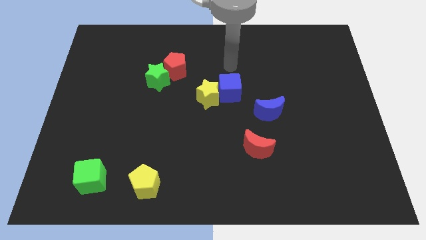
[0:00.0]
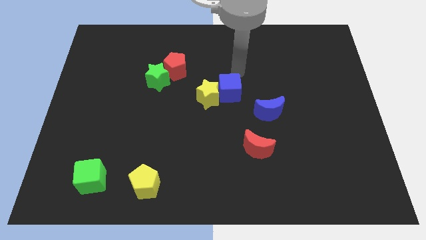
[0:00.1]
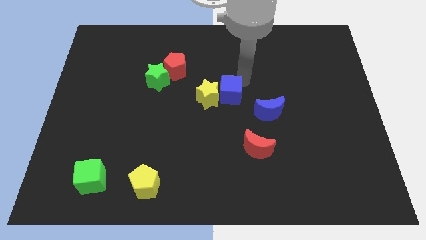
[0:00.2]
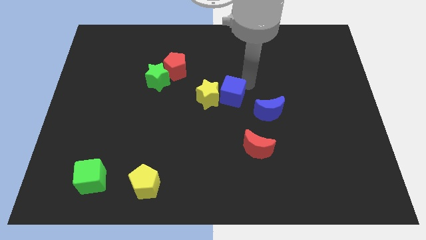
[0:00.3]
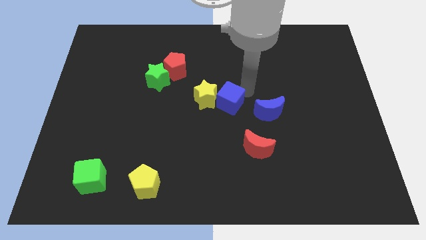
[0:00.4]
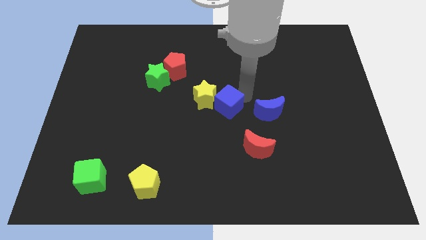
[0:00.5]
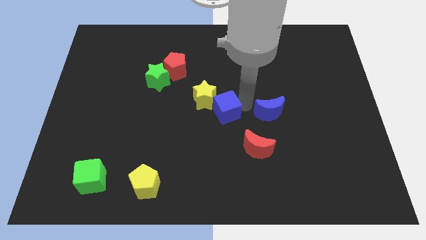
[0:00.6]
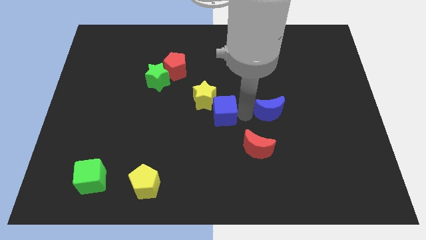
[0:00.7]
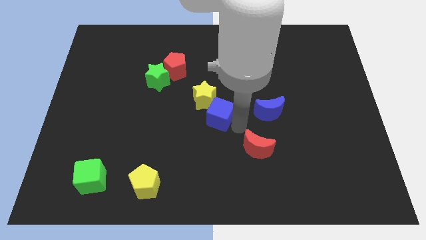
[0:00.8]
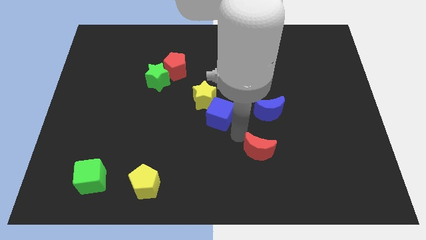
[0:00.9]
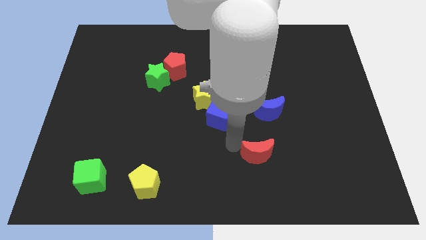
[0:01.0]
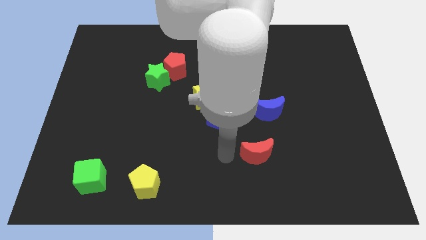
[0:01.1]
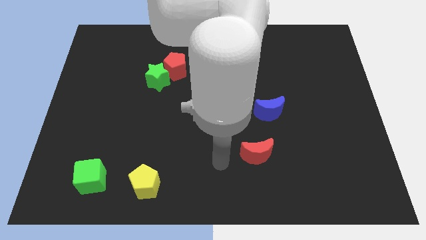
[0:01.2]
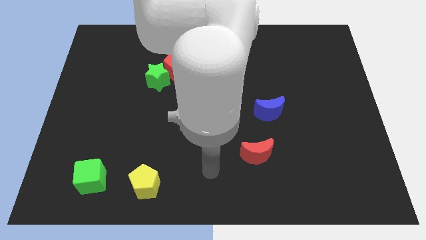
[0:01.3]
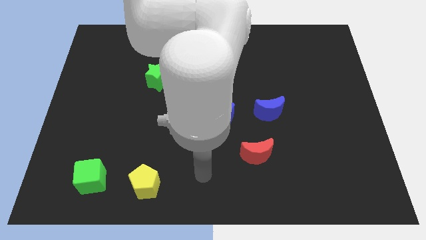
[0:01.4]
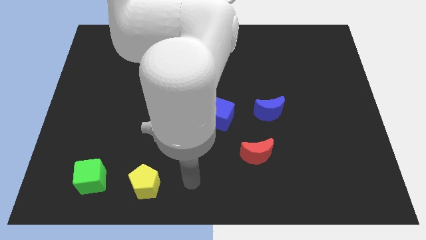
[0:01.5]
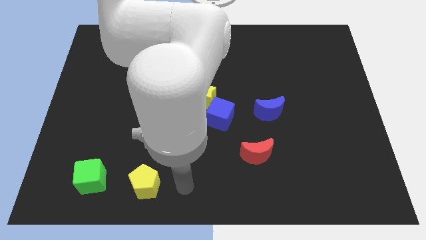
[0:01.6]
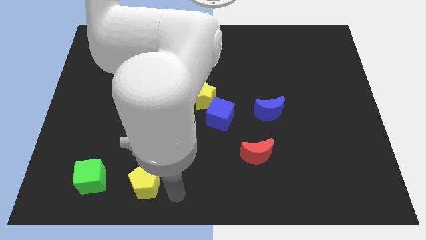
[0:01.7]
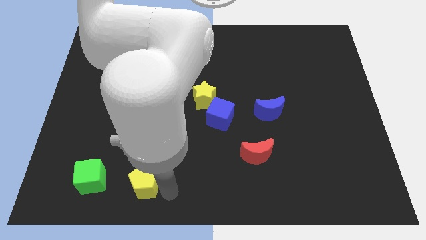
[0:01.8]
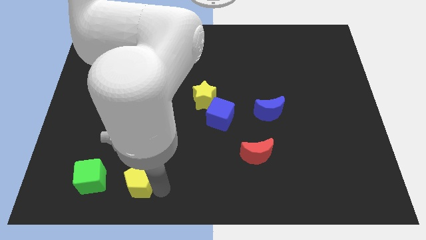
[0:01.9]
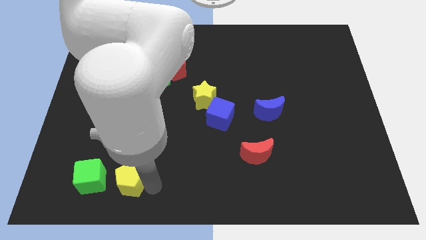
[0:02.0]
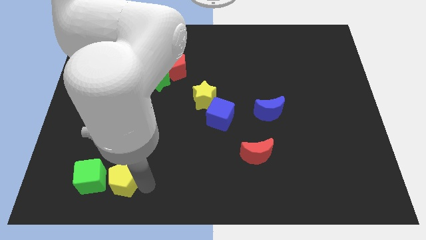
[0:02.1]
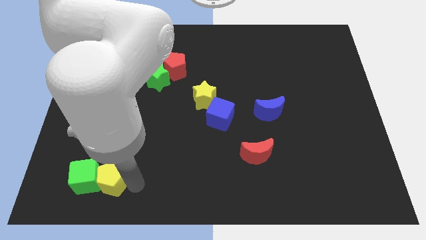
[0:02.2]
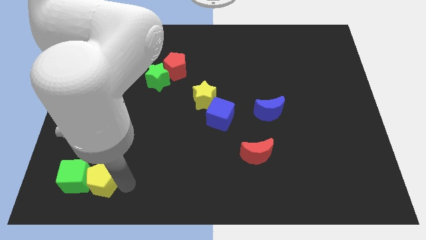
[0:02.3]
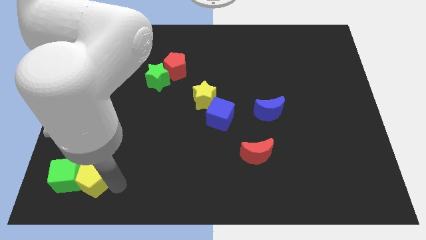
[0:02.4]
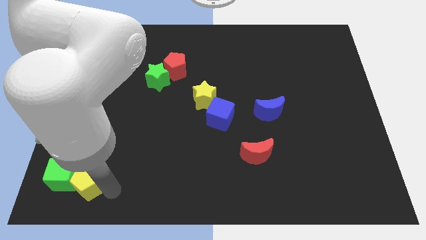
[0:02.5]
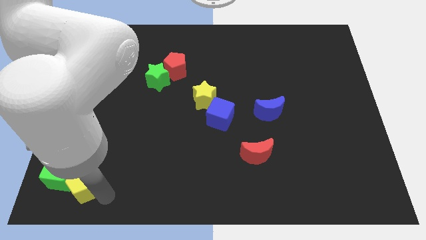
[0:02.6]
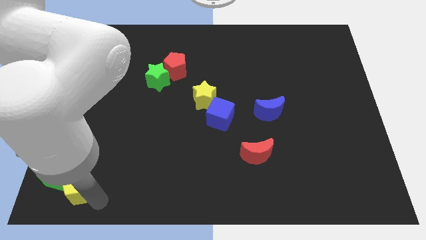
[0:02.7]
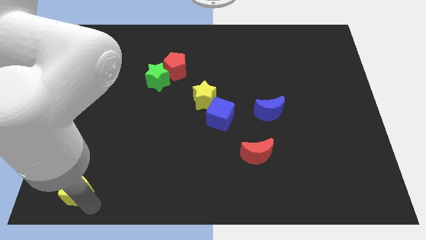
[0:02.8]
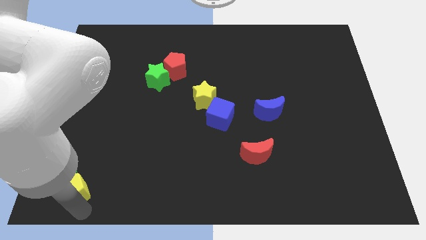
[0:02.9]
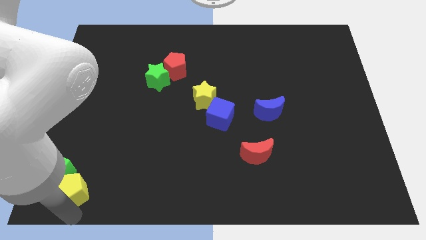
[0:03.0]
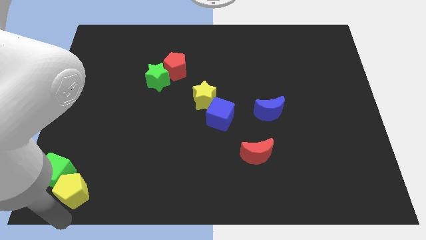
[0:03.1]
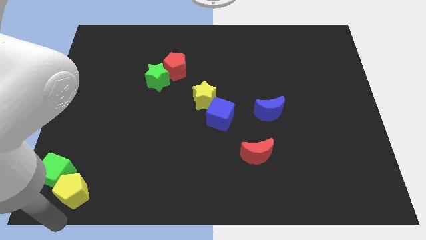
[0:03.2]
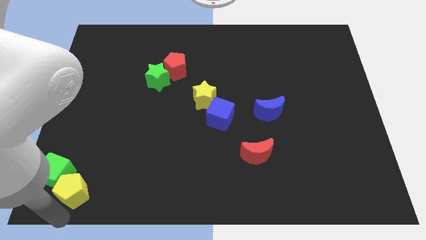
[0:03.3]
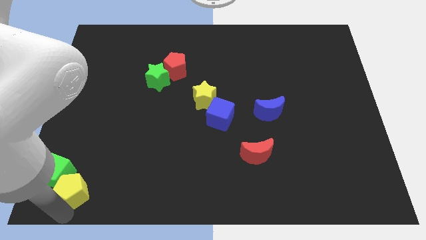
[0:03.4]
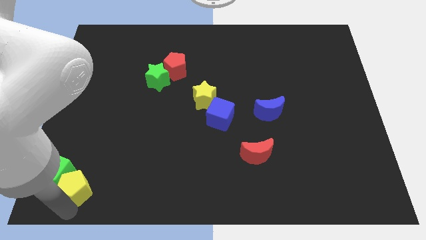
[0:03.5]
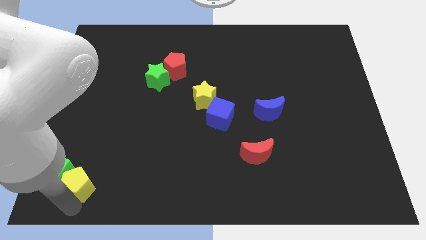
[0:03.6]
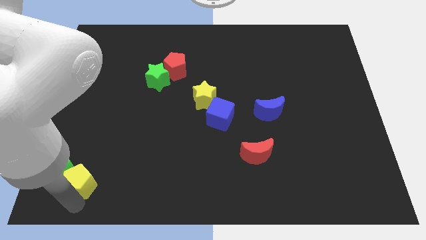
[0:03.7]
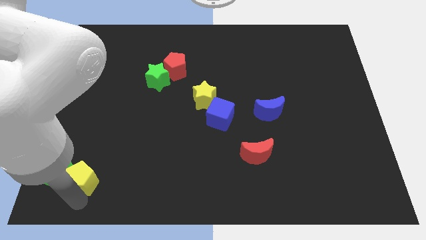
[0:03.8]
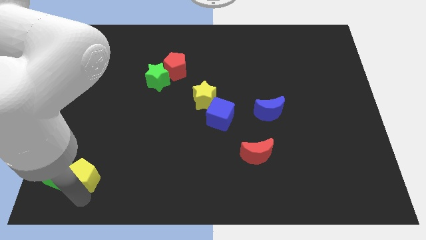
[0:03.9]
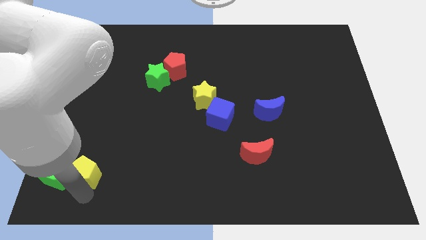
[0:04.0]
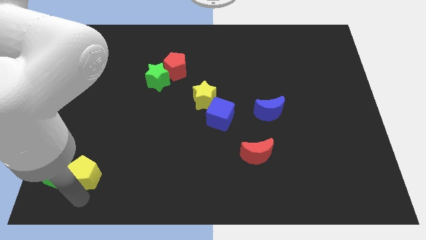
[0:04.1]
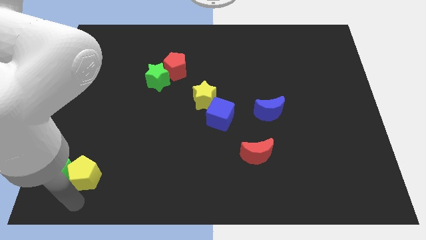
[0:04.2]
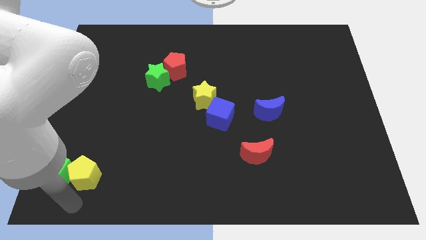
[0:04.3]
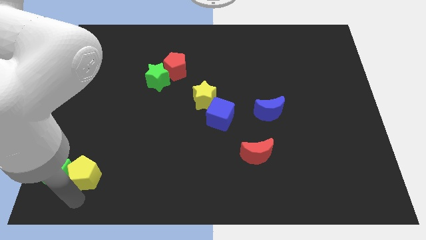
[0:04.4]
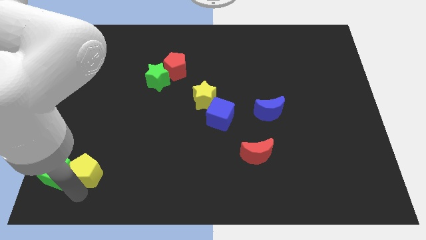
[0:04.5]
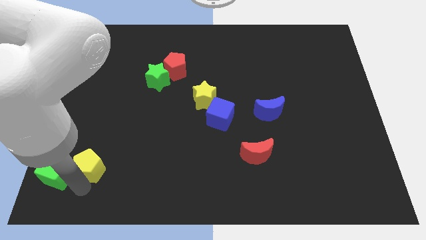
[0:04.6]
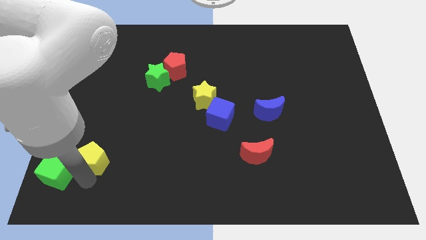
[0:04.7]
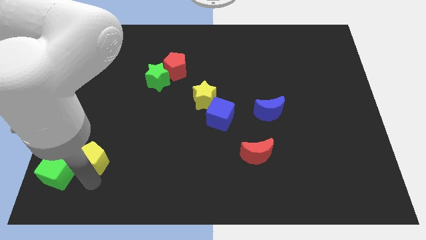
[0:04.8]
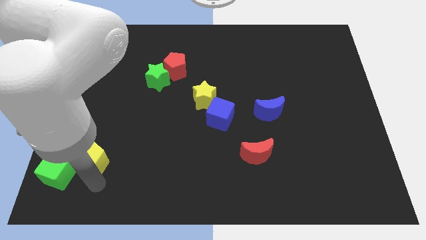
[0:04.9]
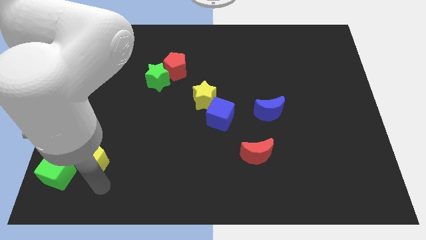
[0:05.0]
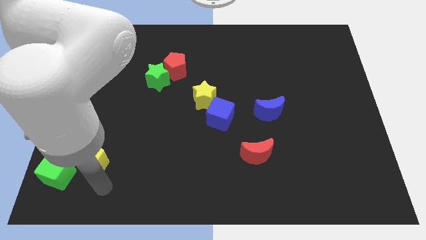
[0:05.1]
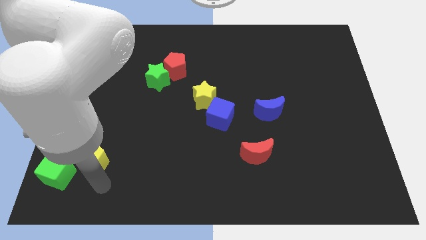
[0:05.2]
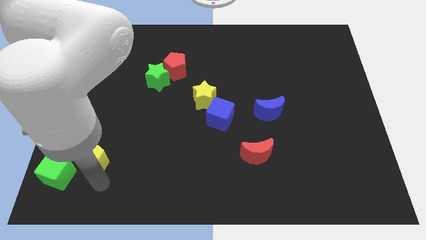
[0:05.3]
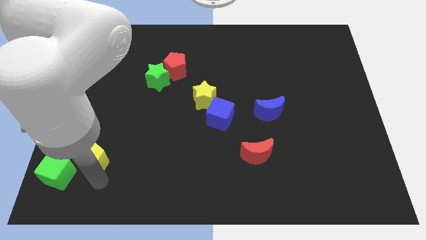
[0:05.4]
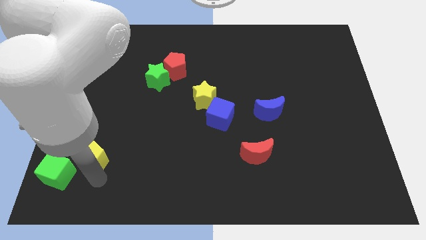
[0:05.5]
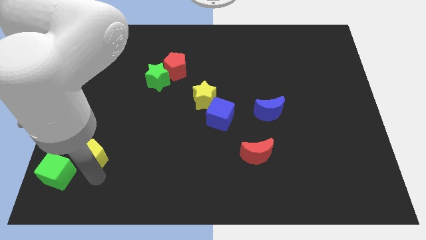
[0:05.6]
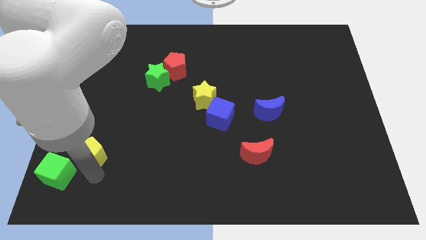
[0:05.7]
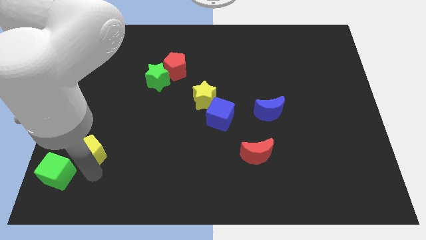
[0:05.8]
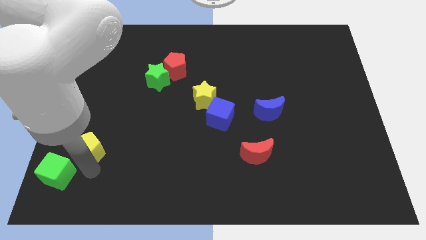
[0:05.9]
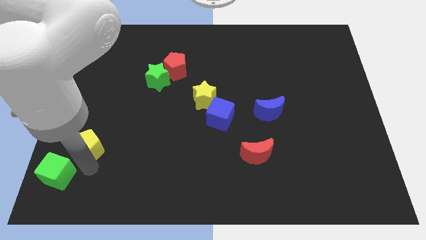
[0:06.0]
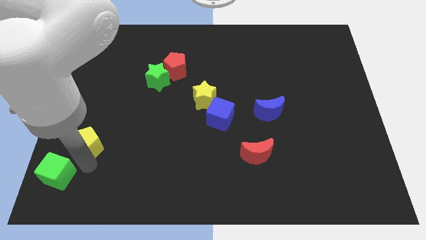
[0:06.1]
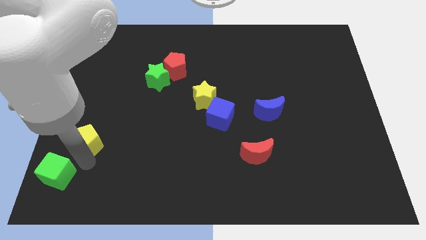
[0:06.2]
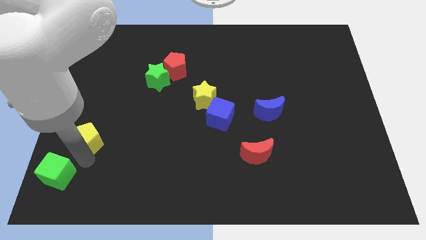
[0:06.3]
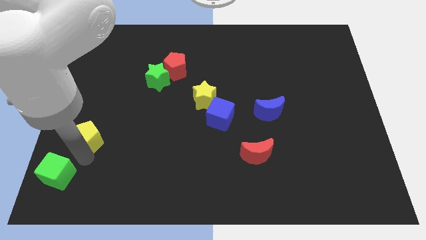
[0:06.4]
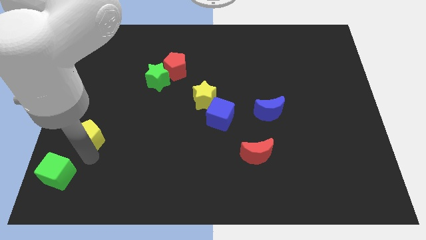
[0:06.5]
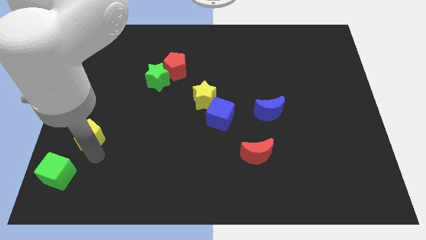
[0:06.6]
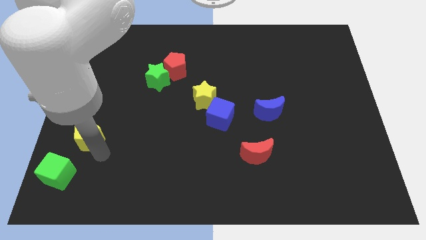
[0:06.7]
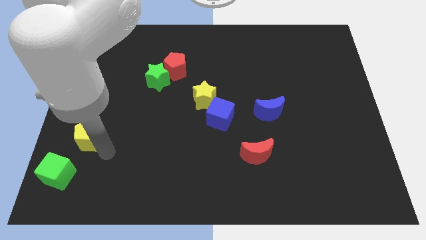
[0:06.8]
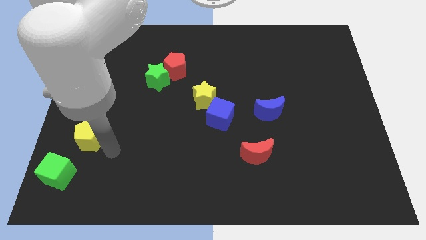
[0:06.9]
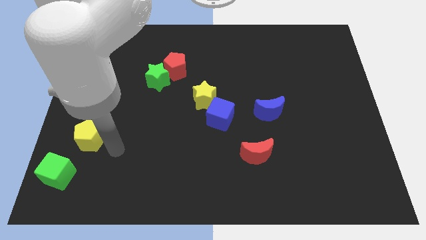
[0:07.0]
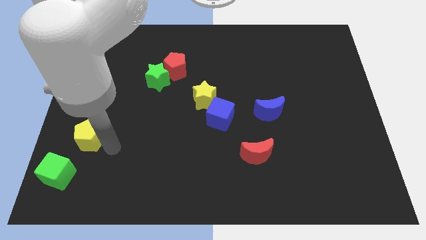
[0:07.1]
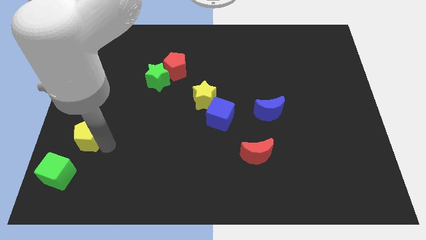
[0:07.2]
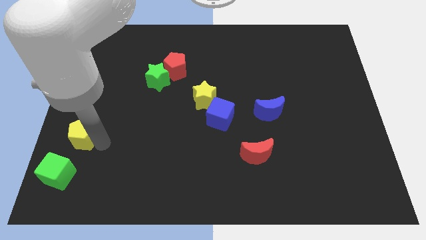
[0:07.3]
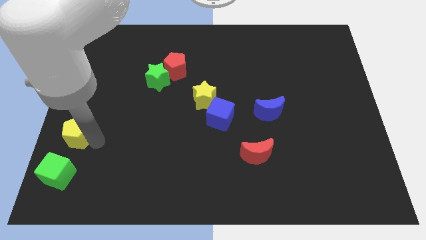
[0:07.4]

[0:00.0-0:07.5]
put the yellow pentagon to the left side
